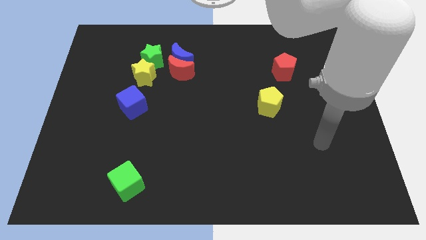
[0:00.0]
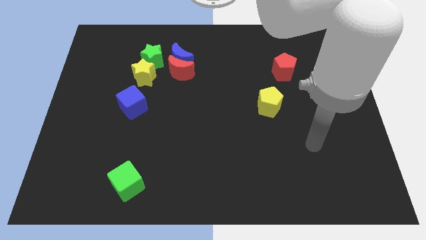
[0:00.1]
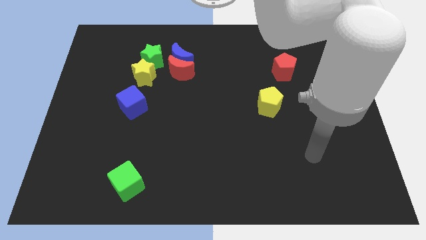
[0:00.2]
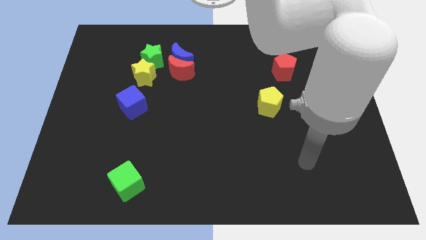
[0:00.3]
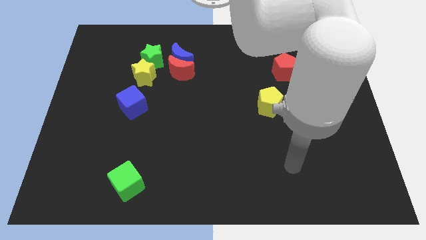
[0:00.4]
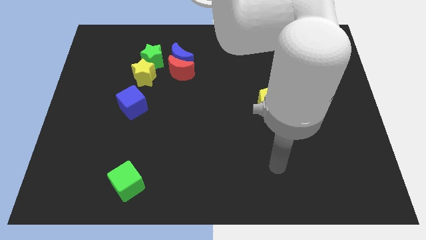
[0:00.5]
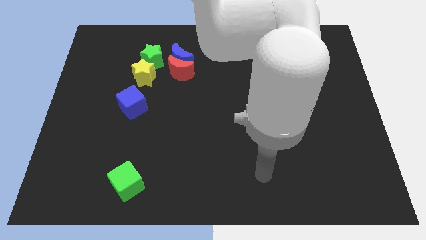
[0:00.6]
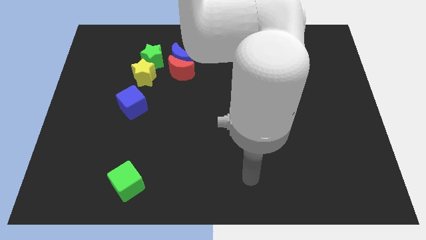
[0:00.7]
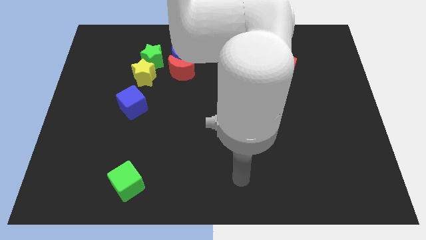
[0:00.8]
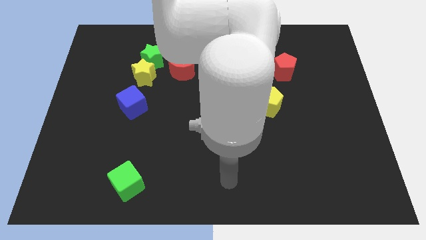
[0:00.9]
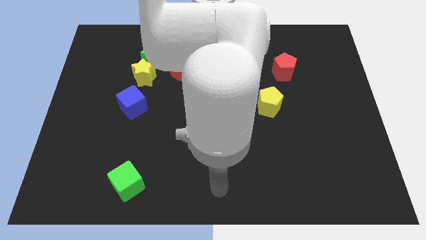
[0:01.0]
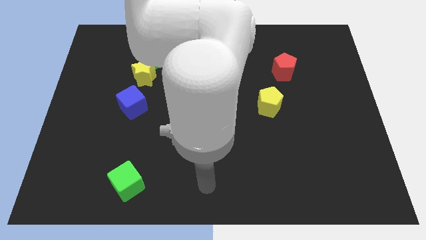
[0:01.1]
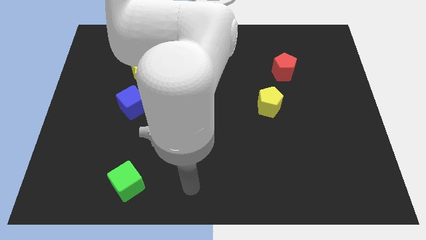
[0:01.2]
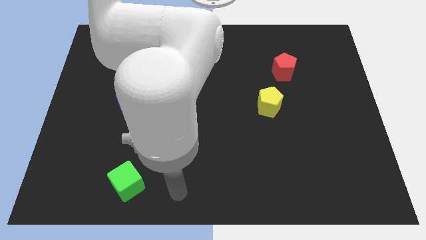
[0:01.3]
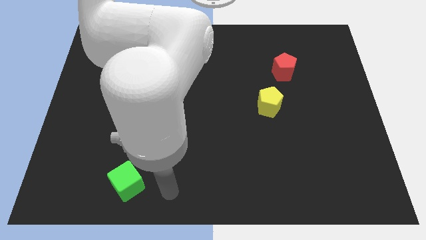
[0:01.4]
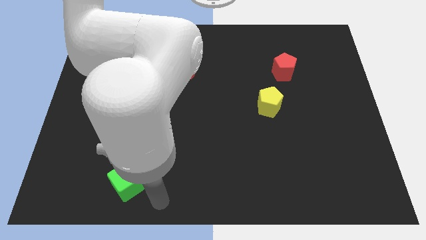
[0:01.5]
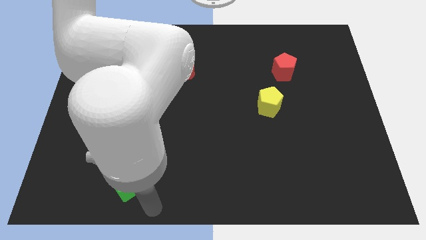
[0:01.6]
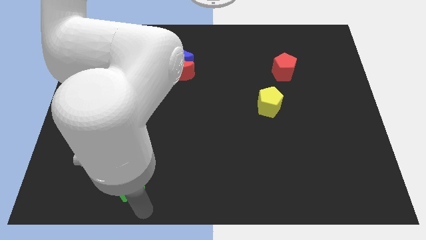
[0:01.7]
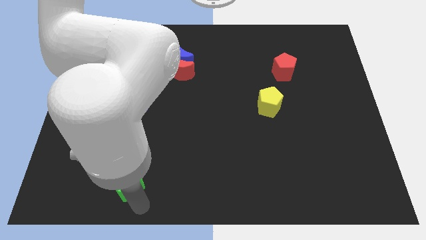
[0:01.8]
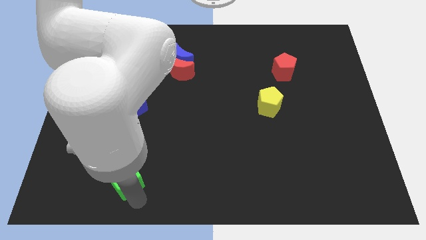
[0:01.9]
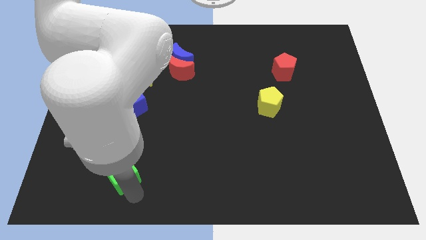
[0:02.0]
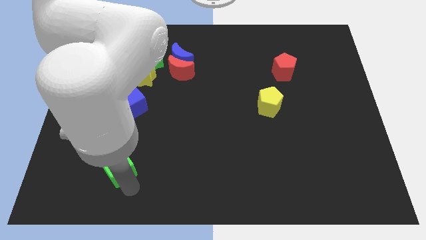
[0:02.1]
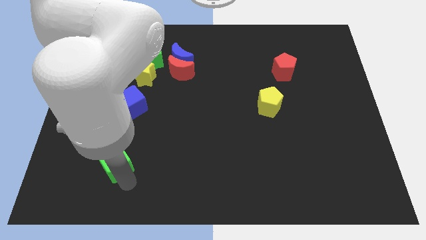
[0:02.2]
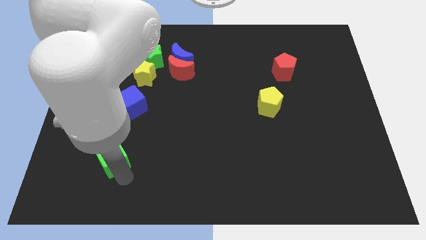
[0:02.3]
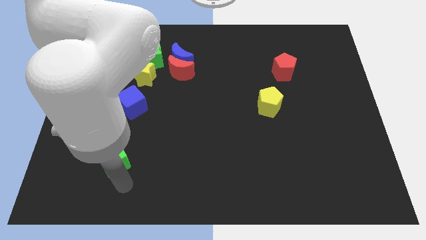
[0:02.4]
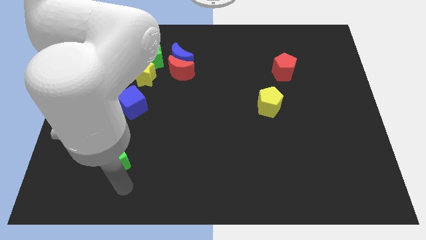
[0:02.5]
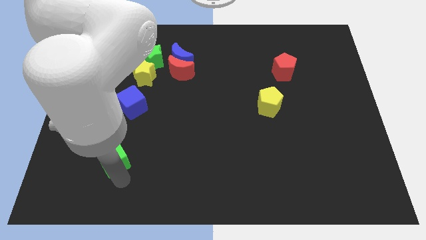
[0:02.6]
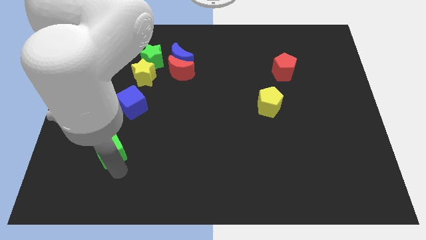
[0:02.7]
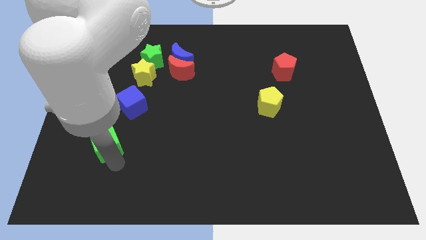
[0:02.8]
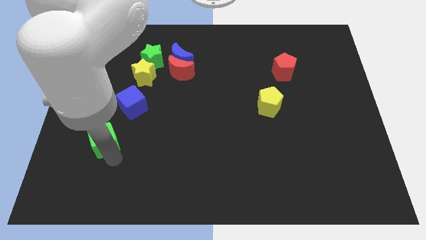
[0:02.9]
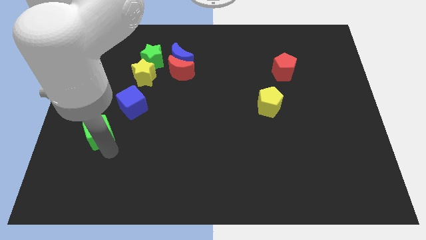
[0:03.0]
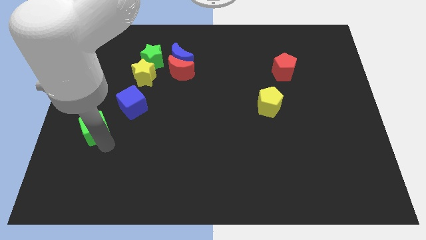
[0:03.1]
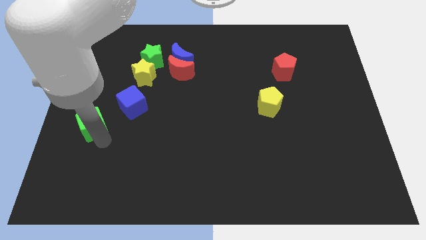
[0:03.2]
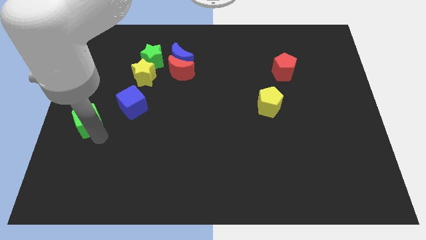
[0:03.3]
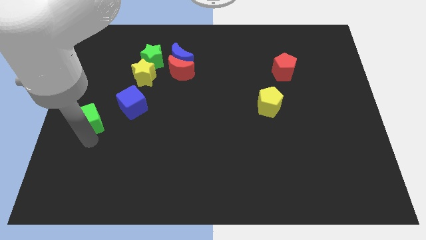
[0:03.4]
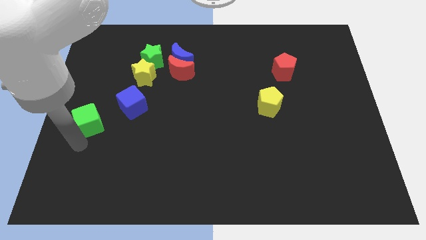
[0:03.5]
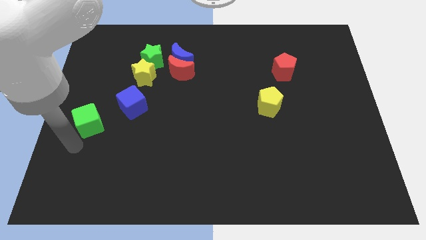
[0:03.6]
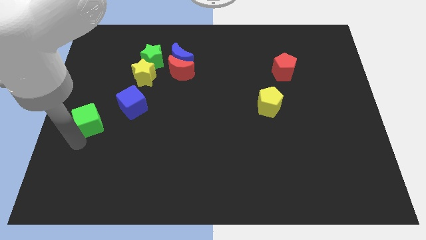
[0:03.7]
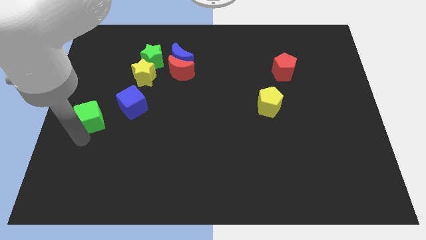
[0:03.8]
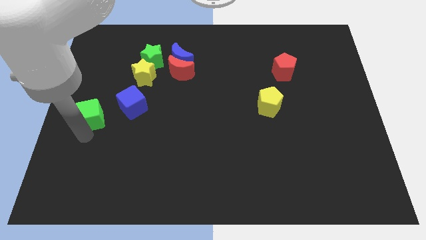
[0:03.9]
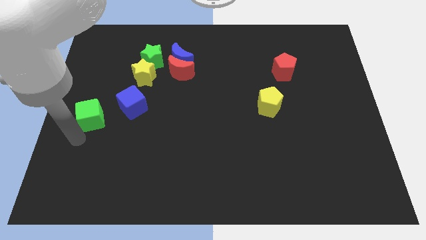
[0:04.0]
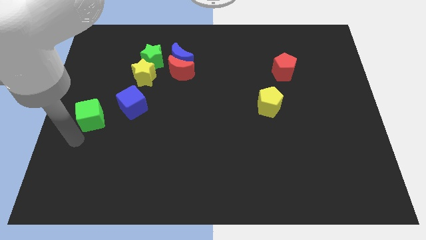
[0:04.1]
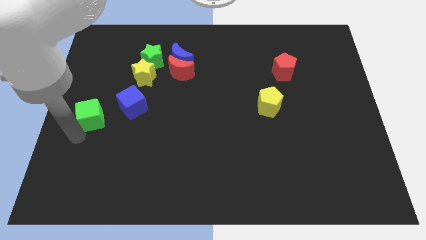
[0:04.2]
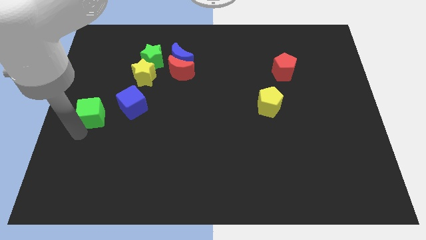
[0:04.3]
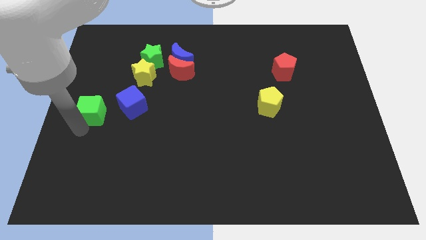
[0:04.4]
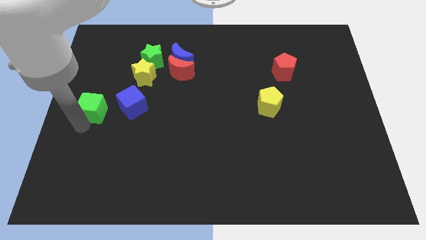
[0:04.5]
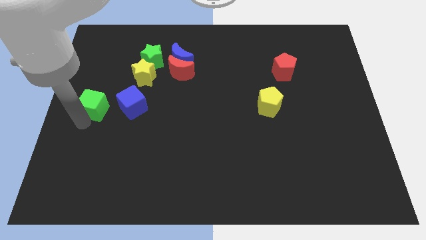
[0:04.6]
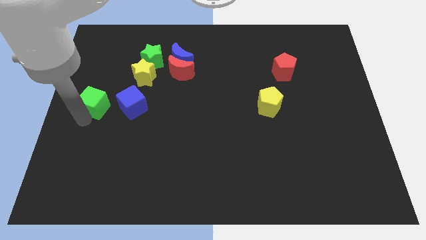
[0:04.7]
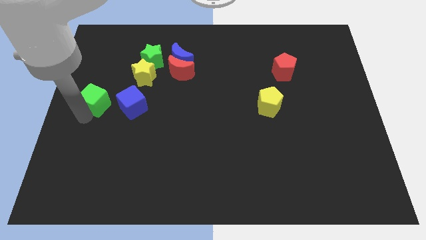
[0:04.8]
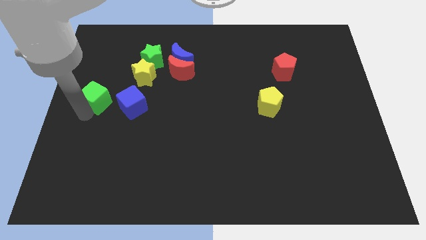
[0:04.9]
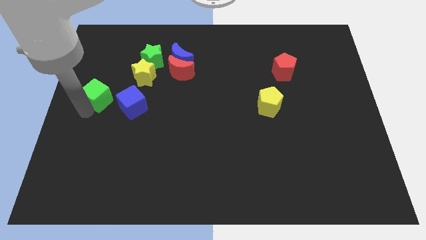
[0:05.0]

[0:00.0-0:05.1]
put the green cube to the top left of the blue cube

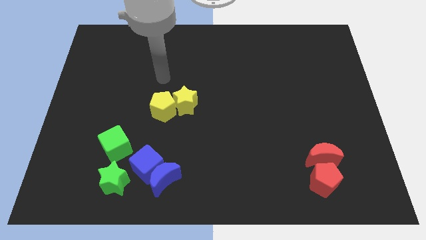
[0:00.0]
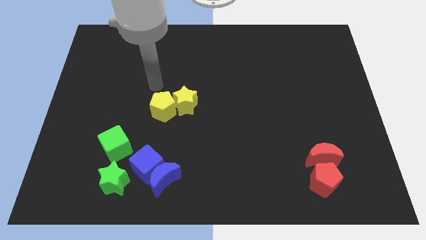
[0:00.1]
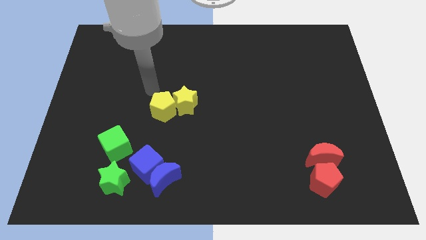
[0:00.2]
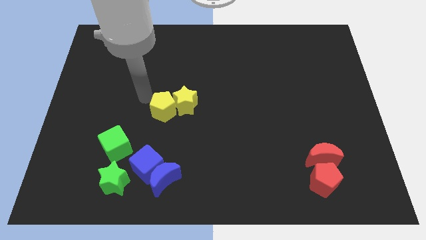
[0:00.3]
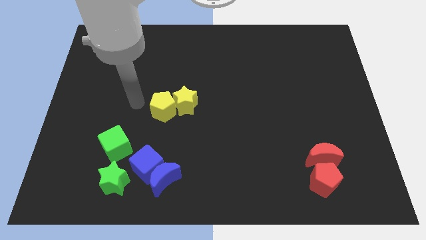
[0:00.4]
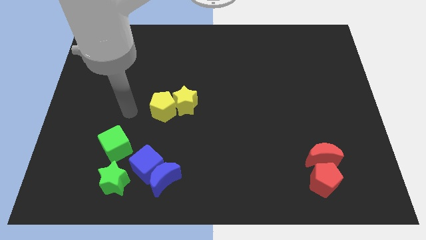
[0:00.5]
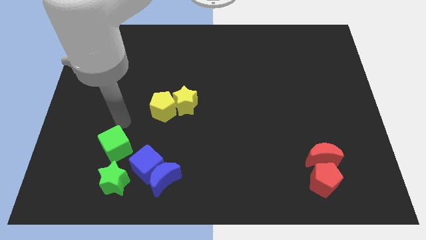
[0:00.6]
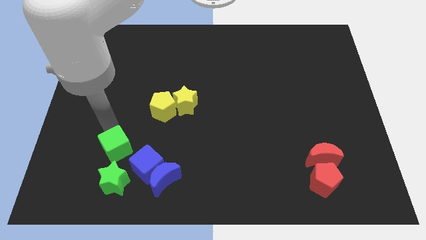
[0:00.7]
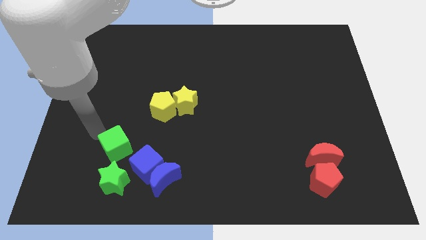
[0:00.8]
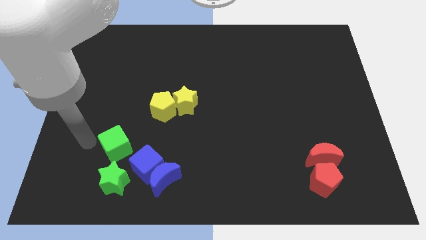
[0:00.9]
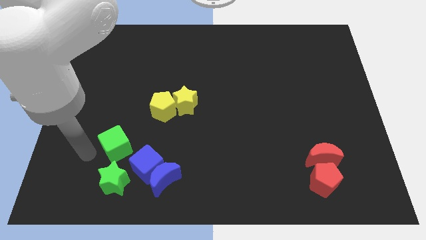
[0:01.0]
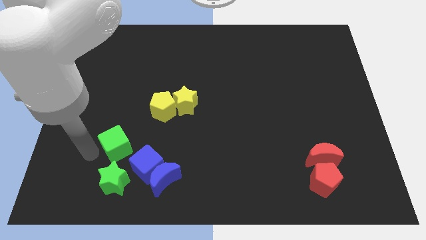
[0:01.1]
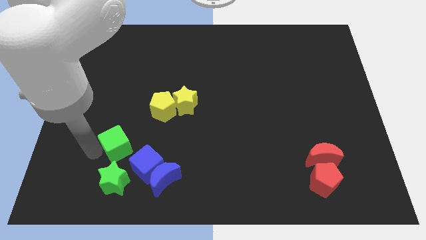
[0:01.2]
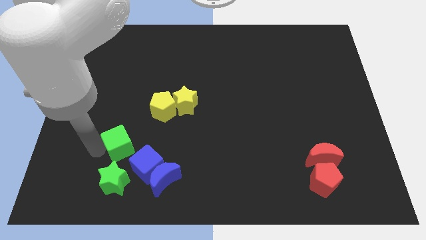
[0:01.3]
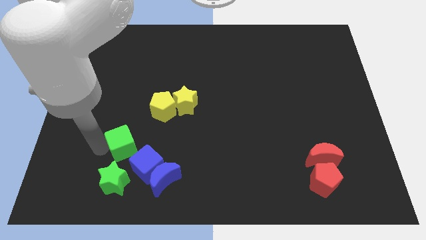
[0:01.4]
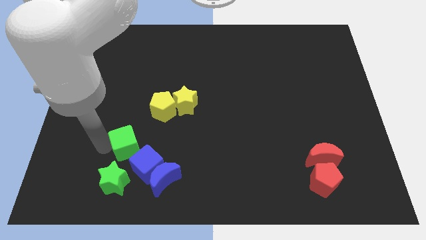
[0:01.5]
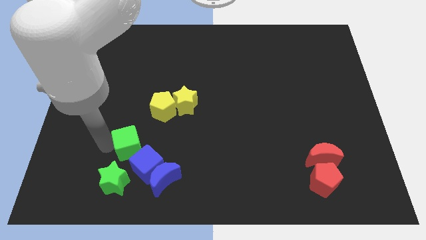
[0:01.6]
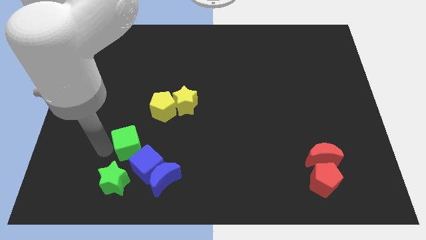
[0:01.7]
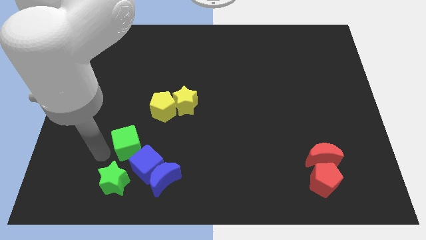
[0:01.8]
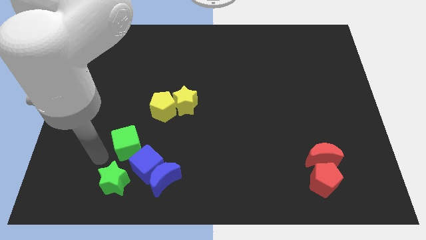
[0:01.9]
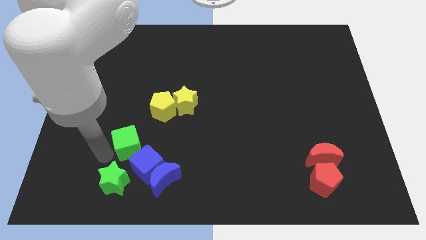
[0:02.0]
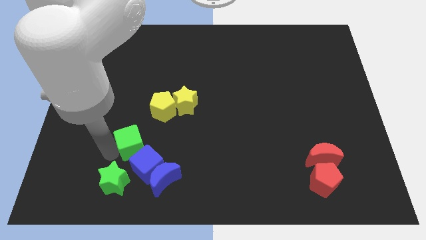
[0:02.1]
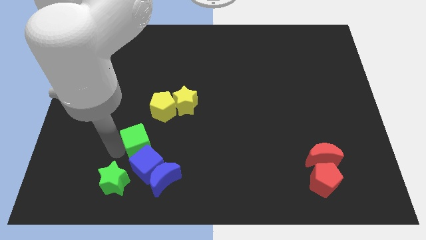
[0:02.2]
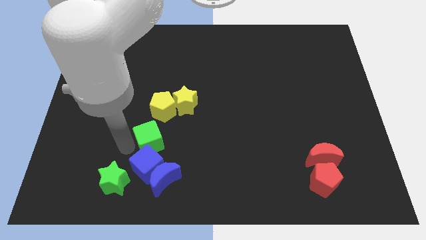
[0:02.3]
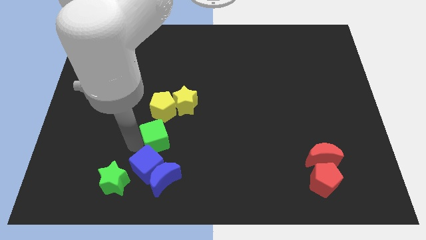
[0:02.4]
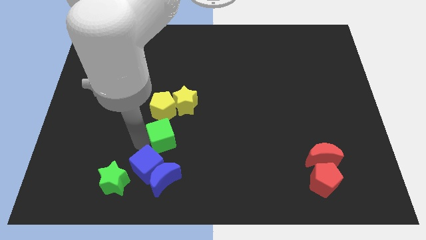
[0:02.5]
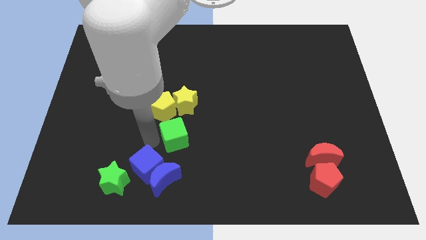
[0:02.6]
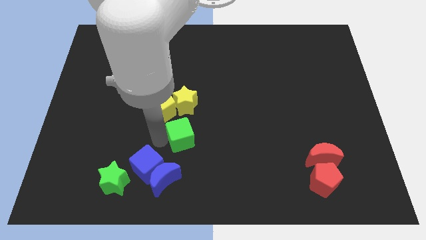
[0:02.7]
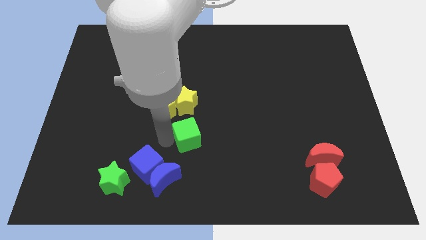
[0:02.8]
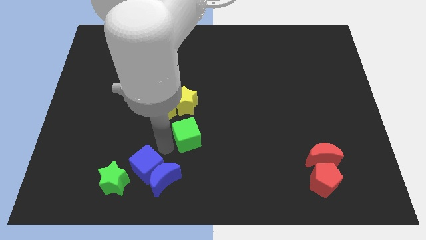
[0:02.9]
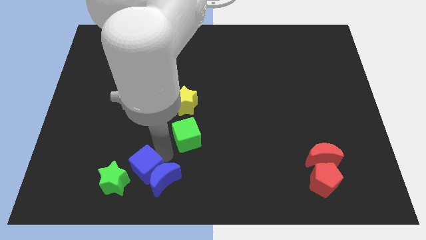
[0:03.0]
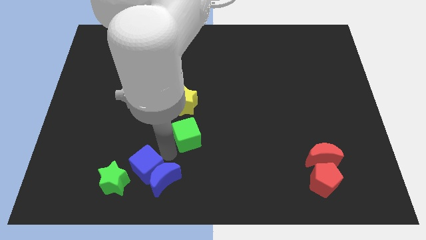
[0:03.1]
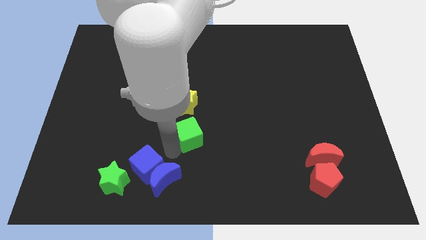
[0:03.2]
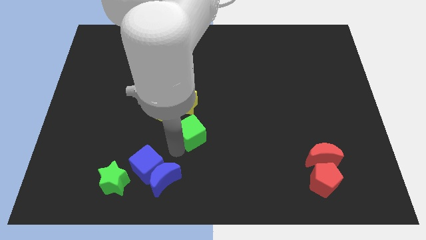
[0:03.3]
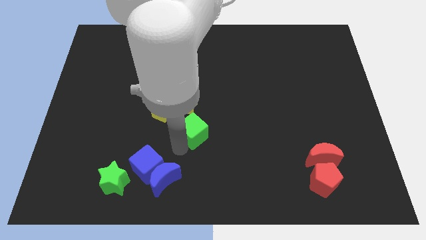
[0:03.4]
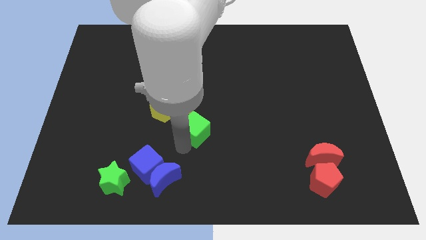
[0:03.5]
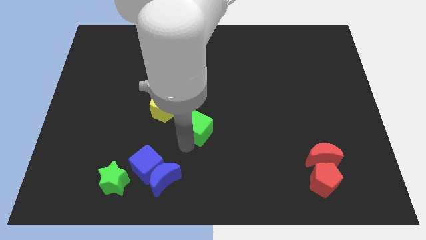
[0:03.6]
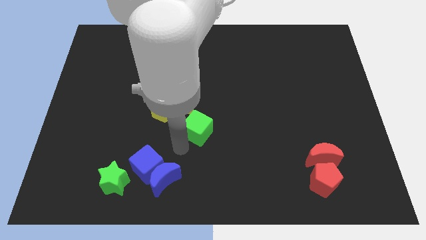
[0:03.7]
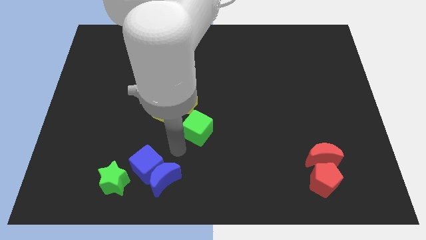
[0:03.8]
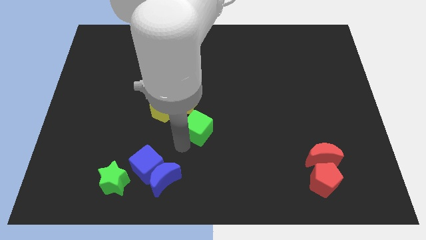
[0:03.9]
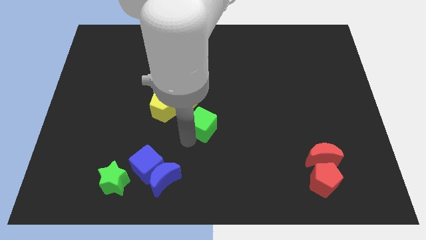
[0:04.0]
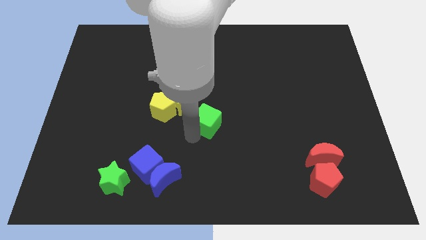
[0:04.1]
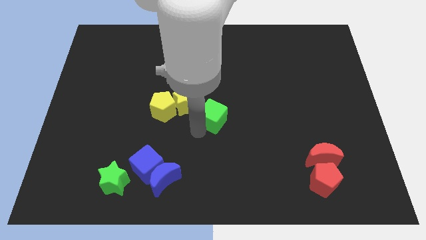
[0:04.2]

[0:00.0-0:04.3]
slide the green cube to the right of the yellow star
